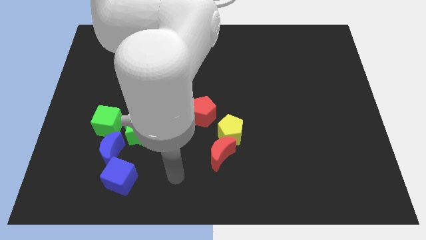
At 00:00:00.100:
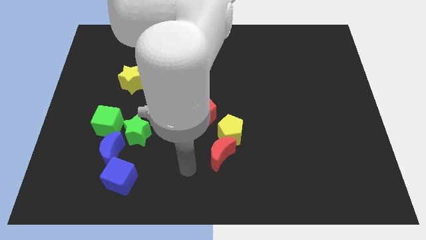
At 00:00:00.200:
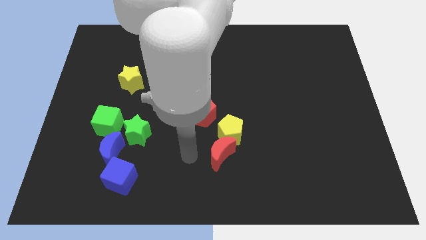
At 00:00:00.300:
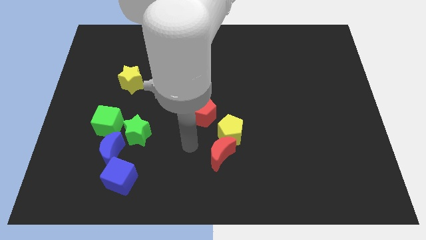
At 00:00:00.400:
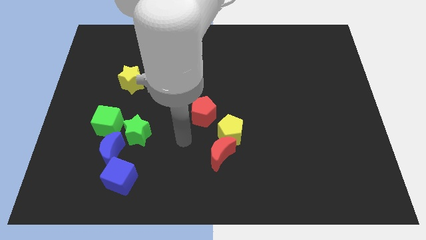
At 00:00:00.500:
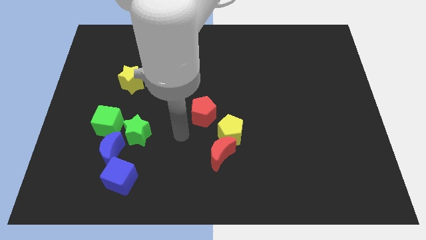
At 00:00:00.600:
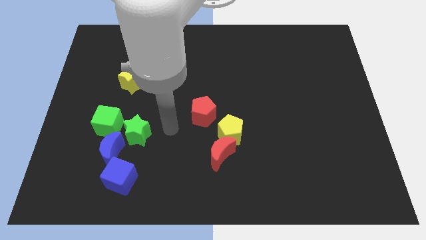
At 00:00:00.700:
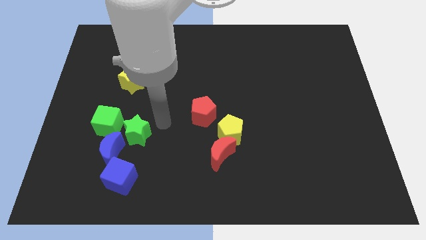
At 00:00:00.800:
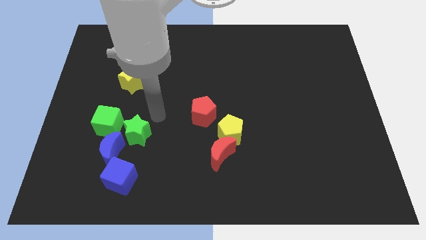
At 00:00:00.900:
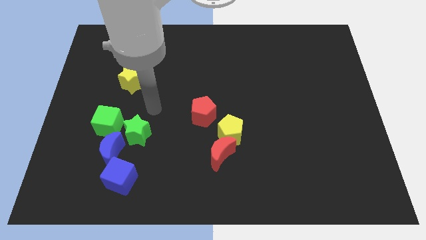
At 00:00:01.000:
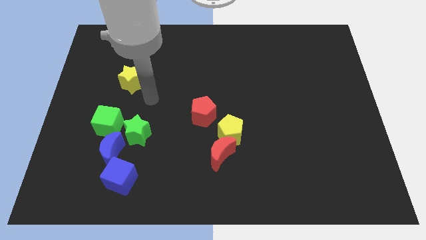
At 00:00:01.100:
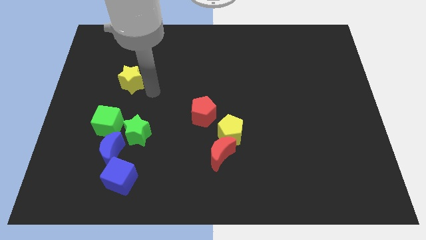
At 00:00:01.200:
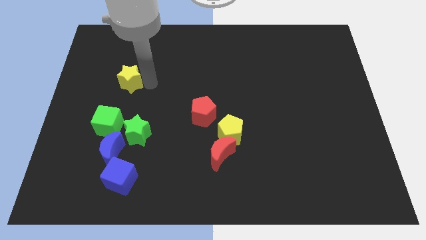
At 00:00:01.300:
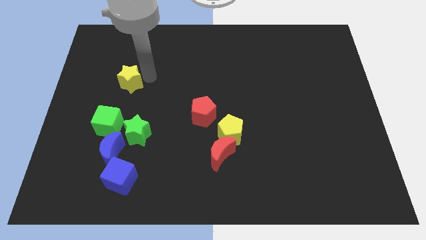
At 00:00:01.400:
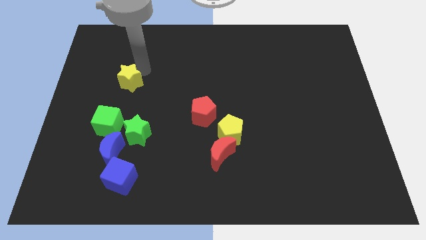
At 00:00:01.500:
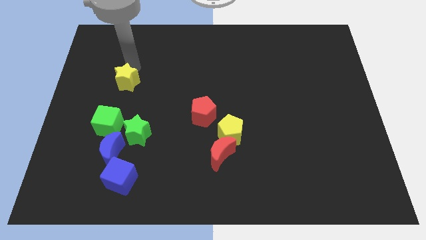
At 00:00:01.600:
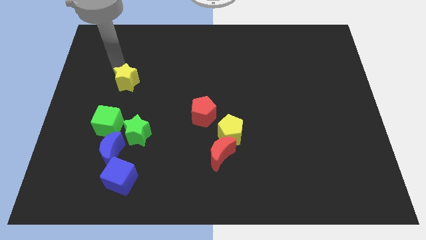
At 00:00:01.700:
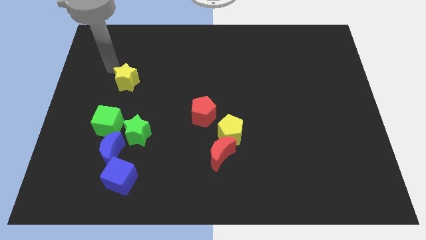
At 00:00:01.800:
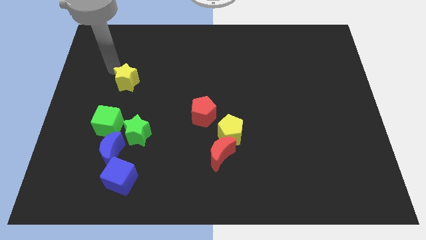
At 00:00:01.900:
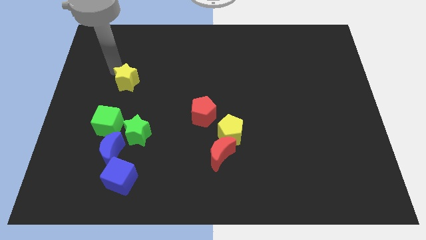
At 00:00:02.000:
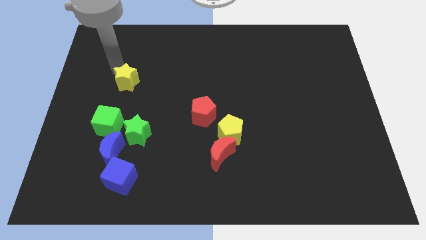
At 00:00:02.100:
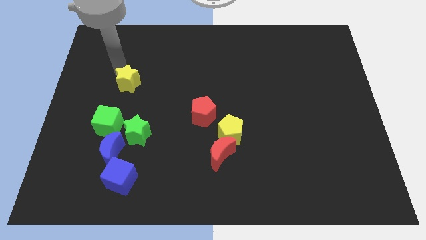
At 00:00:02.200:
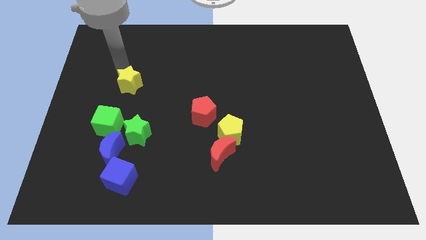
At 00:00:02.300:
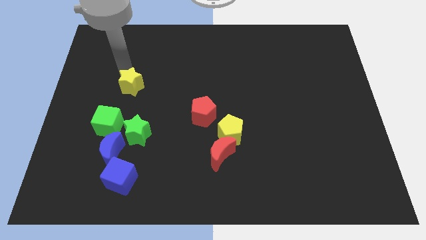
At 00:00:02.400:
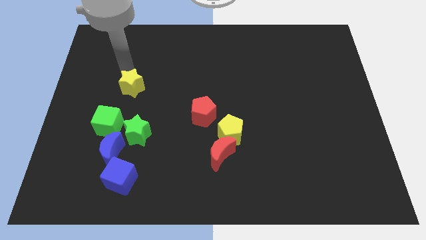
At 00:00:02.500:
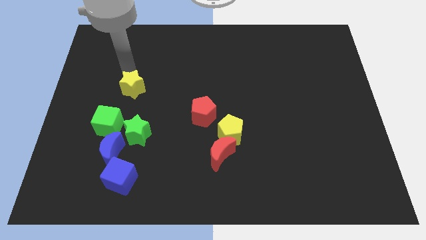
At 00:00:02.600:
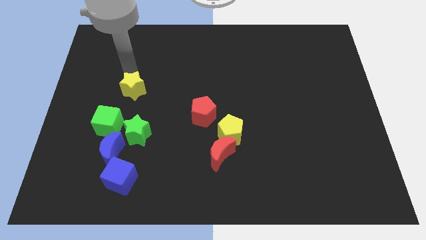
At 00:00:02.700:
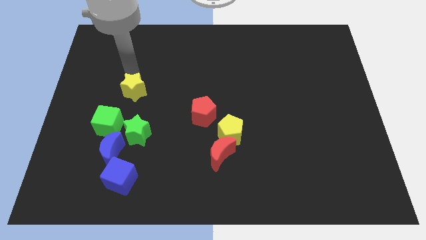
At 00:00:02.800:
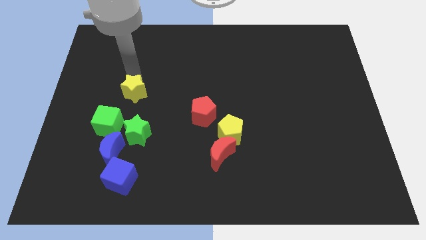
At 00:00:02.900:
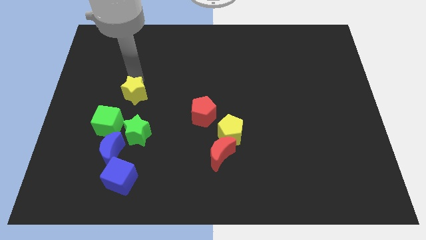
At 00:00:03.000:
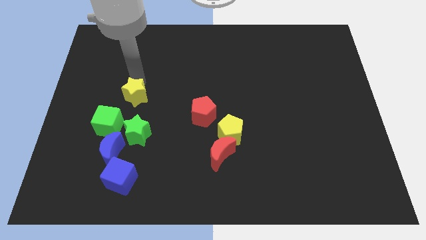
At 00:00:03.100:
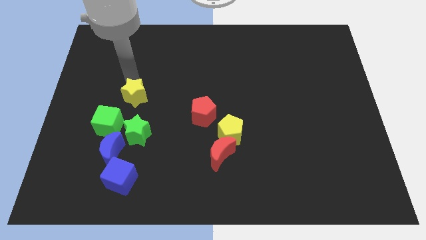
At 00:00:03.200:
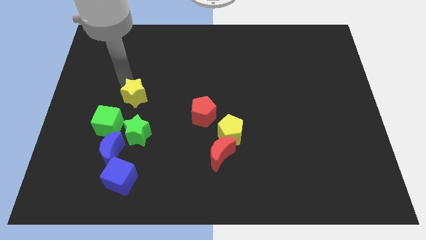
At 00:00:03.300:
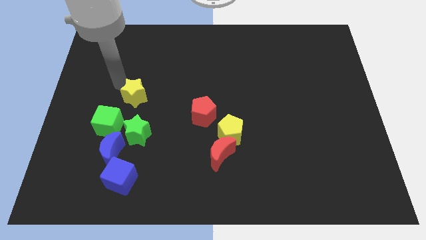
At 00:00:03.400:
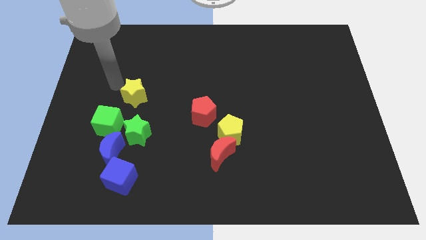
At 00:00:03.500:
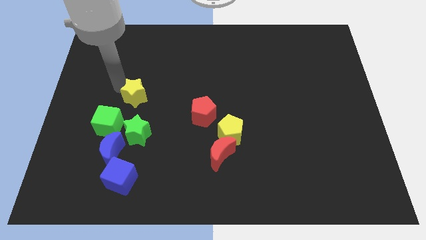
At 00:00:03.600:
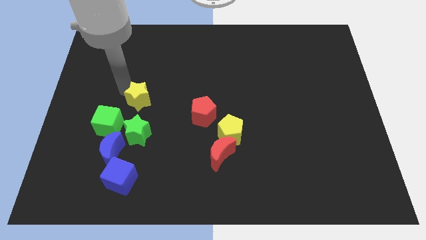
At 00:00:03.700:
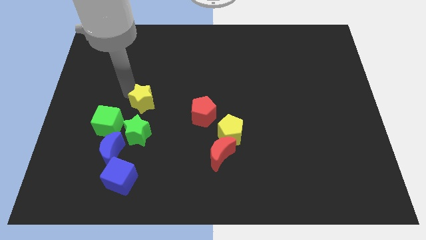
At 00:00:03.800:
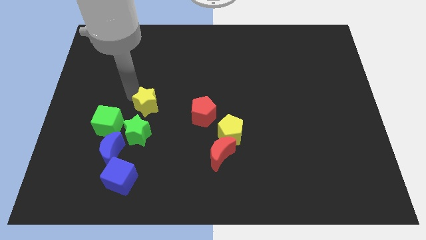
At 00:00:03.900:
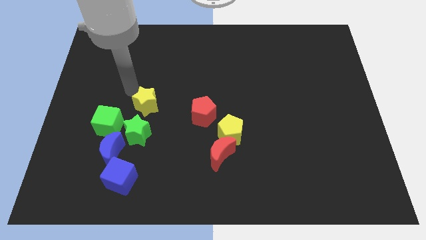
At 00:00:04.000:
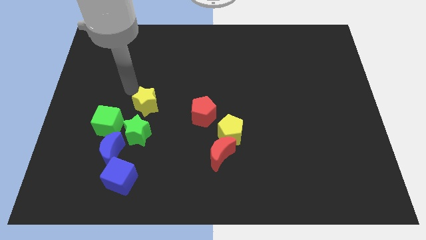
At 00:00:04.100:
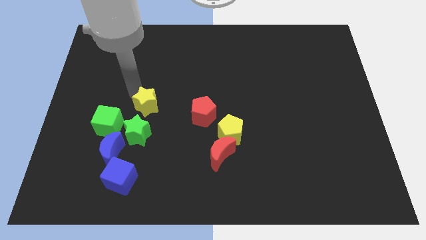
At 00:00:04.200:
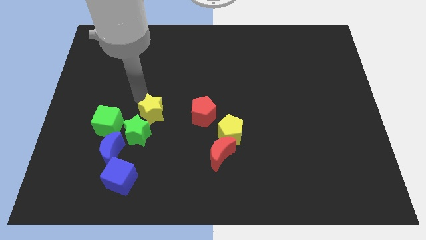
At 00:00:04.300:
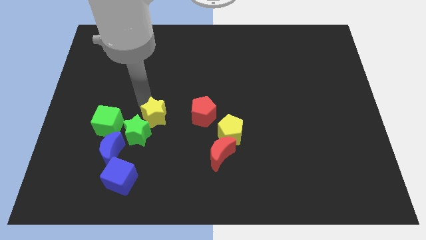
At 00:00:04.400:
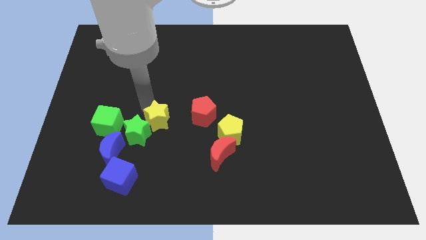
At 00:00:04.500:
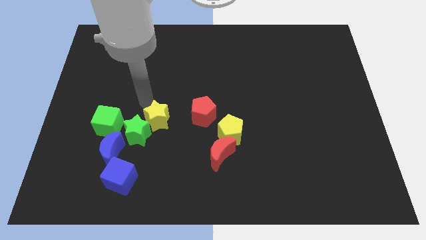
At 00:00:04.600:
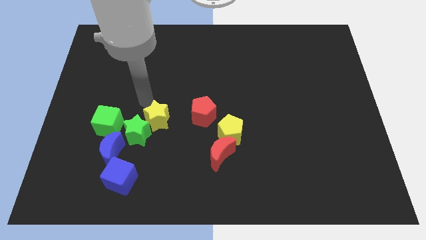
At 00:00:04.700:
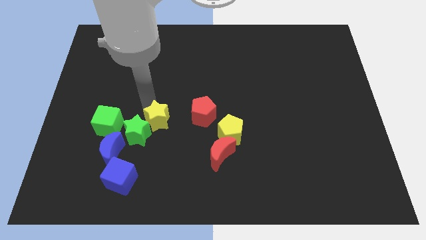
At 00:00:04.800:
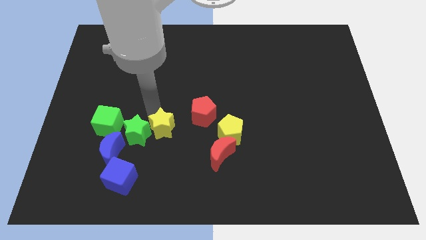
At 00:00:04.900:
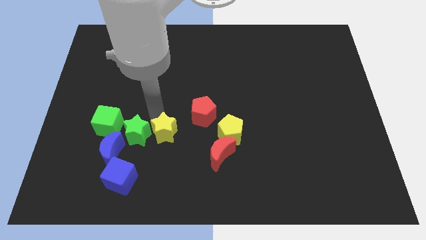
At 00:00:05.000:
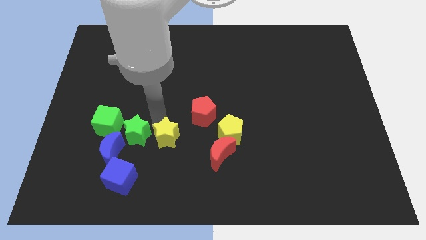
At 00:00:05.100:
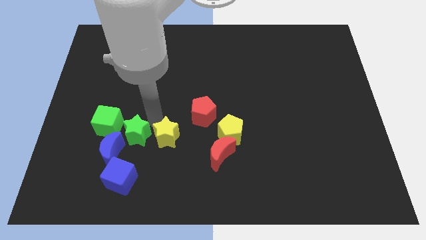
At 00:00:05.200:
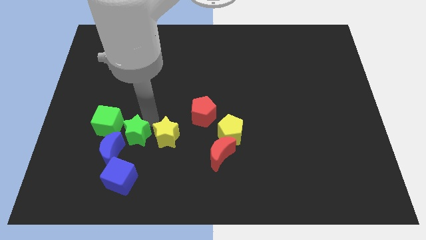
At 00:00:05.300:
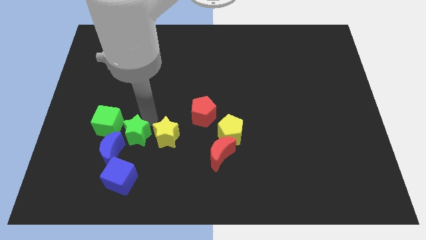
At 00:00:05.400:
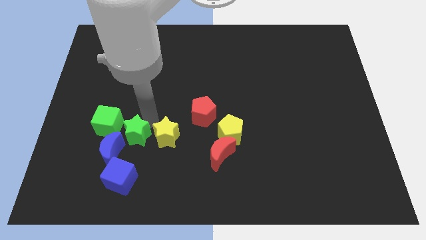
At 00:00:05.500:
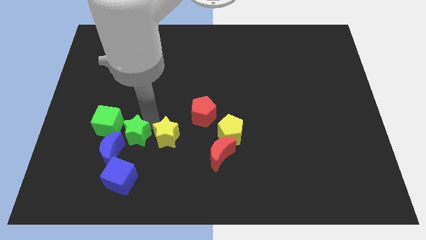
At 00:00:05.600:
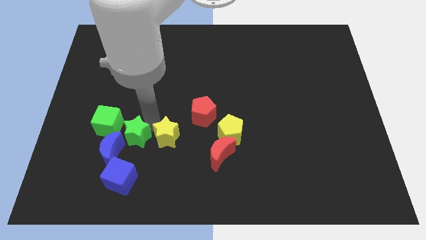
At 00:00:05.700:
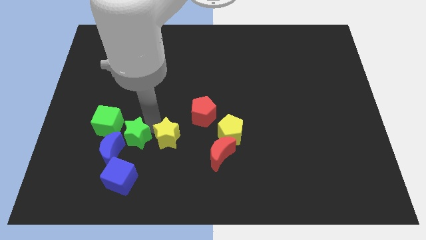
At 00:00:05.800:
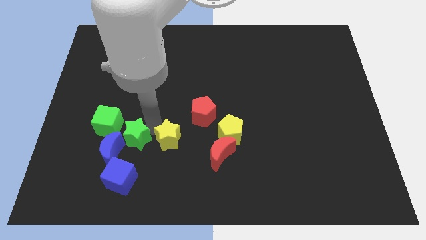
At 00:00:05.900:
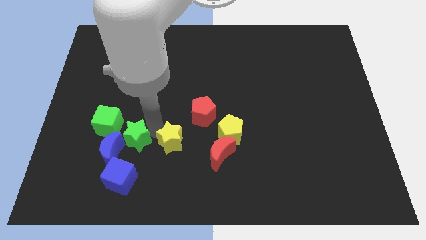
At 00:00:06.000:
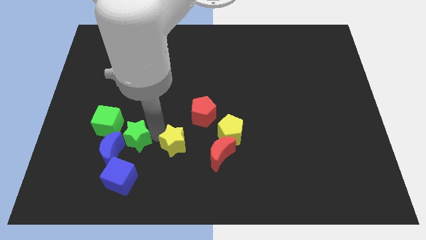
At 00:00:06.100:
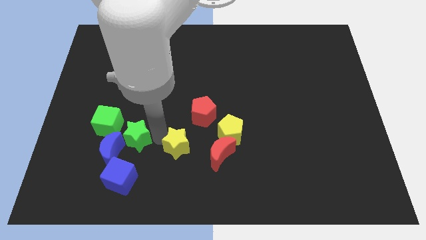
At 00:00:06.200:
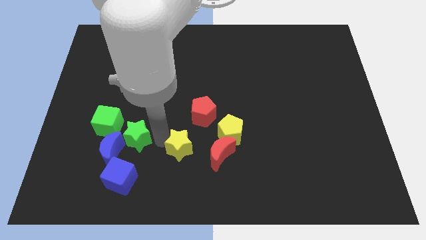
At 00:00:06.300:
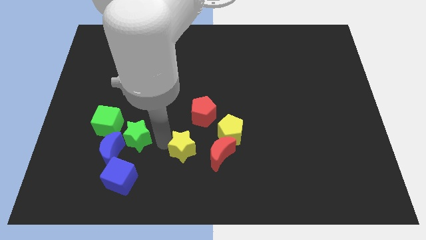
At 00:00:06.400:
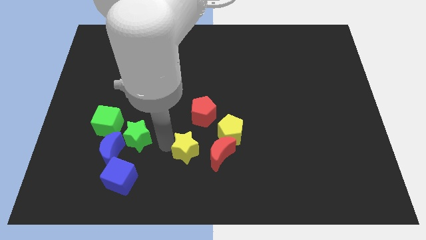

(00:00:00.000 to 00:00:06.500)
slide the yellow star to the bottom left side of the yellow pentagon

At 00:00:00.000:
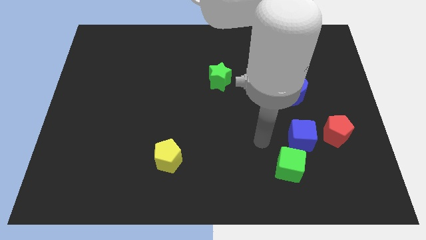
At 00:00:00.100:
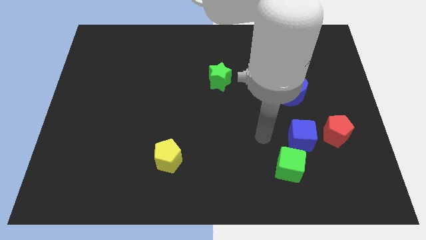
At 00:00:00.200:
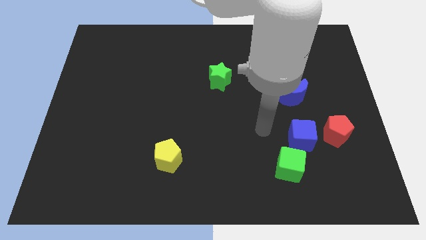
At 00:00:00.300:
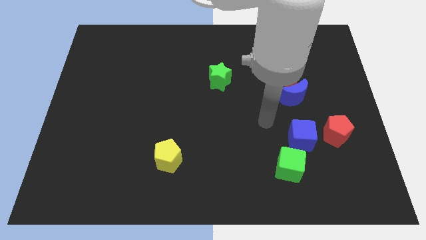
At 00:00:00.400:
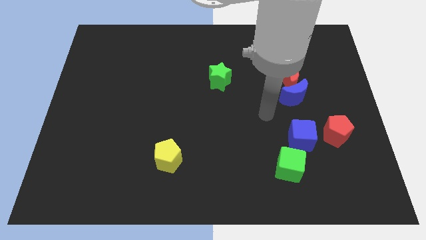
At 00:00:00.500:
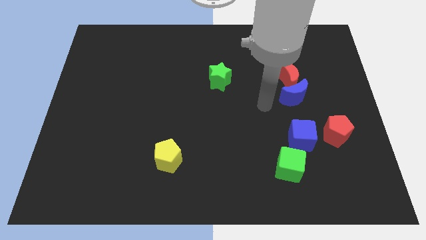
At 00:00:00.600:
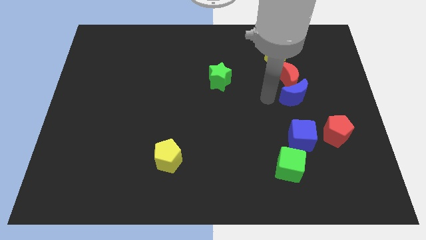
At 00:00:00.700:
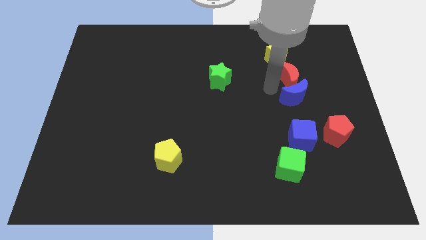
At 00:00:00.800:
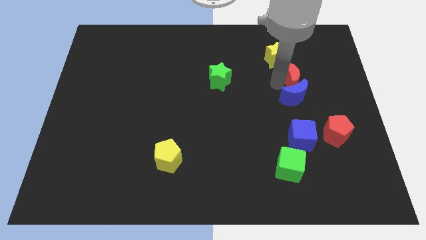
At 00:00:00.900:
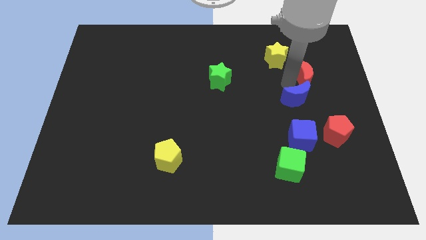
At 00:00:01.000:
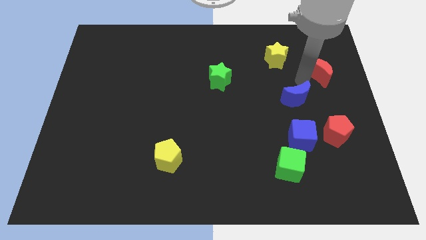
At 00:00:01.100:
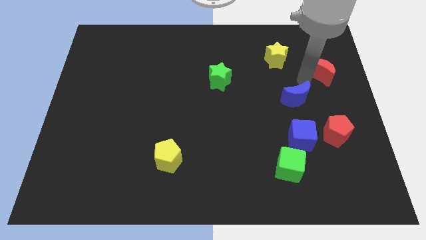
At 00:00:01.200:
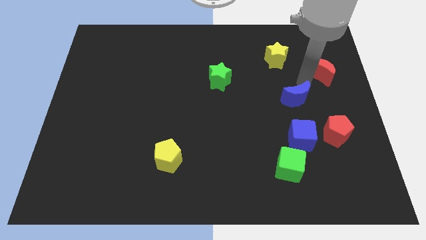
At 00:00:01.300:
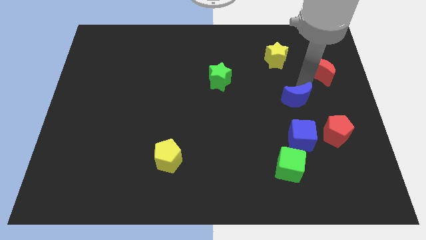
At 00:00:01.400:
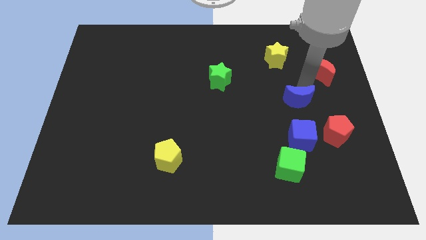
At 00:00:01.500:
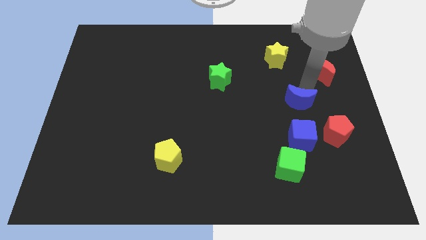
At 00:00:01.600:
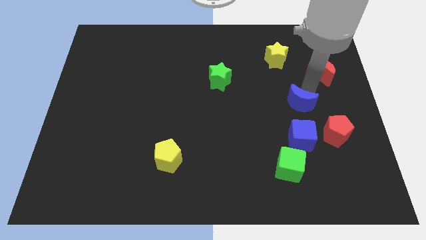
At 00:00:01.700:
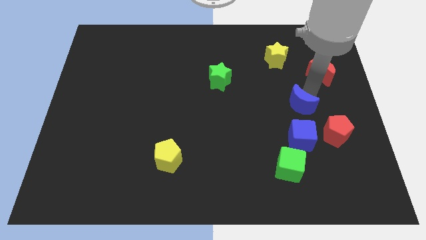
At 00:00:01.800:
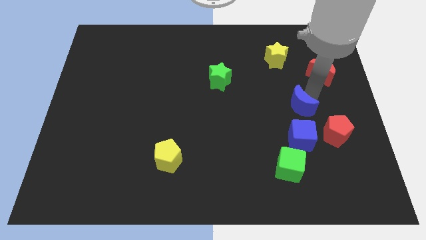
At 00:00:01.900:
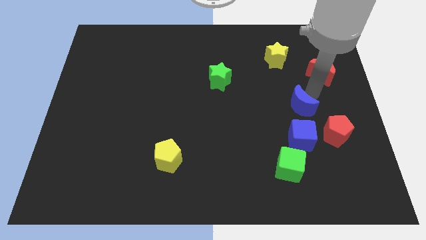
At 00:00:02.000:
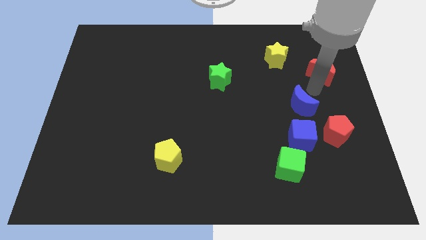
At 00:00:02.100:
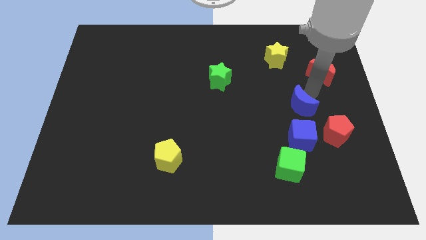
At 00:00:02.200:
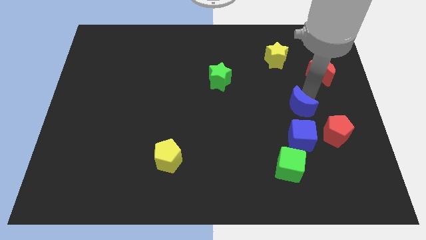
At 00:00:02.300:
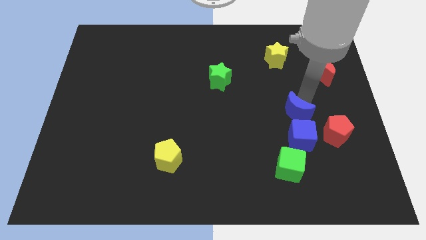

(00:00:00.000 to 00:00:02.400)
move the blue moon to the top of the green cube
